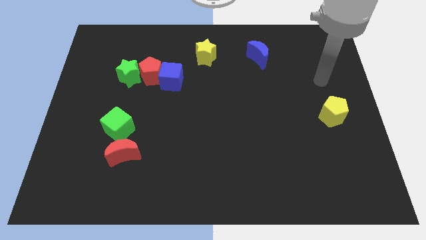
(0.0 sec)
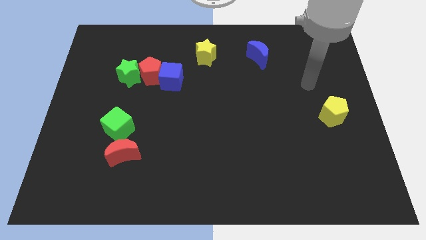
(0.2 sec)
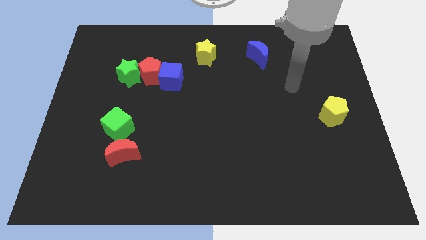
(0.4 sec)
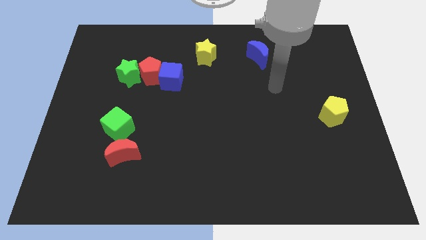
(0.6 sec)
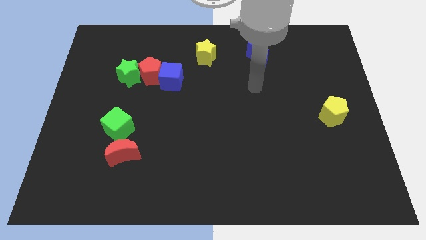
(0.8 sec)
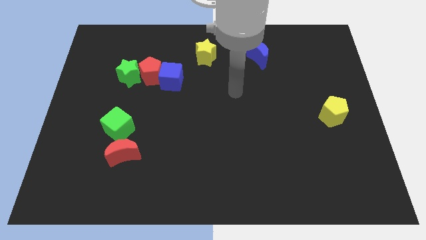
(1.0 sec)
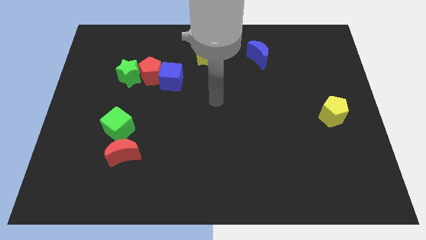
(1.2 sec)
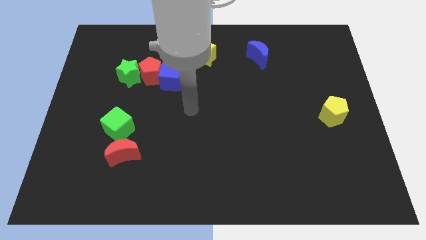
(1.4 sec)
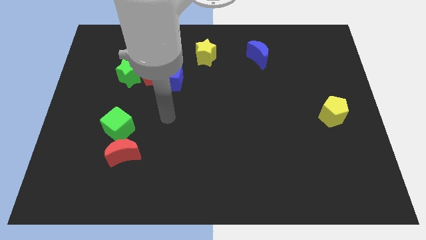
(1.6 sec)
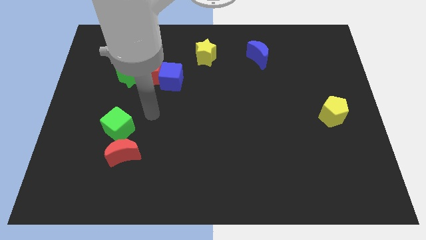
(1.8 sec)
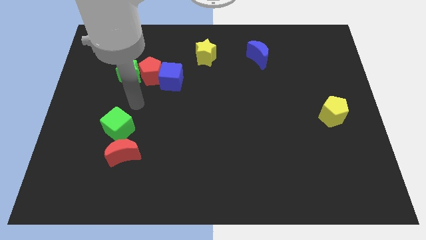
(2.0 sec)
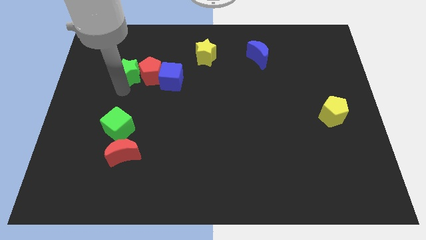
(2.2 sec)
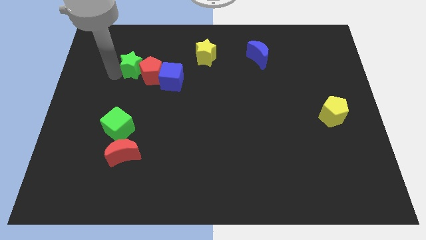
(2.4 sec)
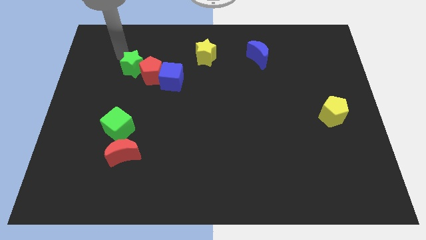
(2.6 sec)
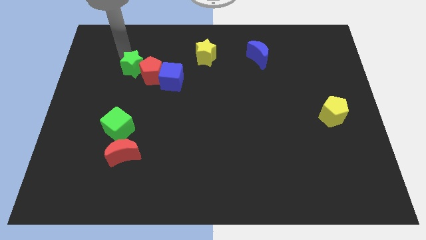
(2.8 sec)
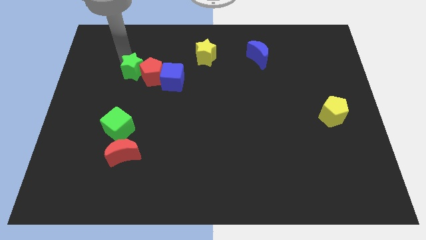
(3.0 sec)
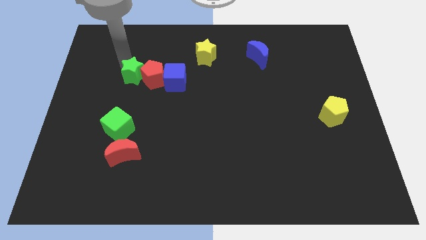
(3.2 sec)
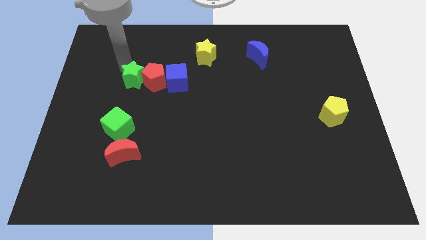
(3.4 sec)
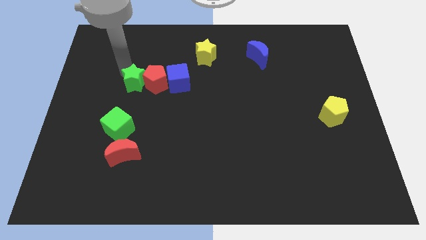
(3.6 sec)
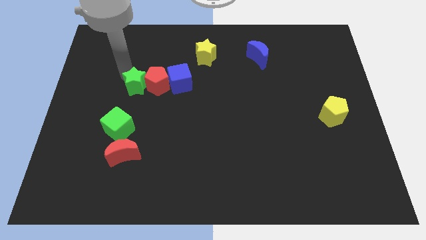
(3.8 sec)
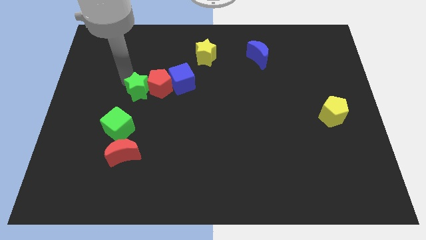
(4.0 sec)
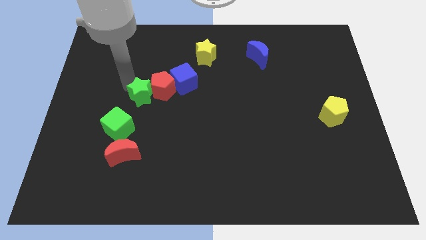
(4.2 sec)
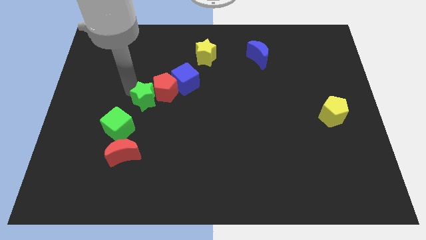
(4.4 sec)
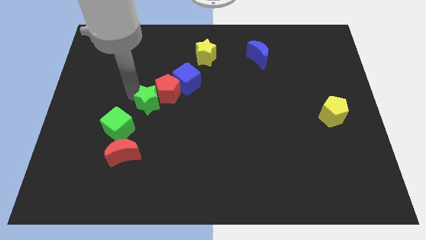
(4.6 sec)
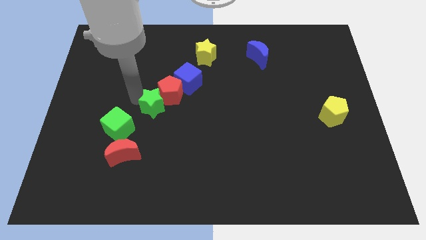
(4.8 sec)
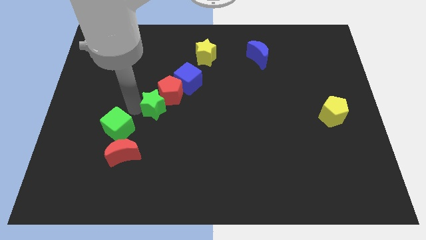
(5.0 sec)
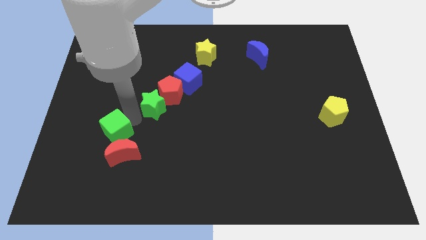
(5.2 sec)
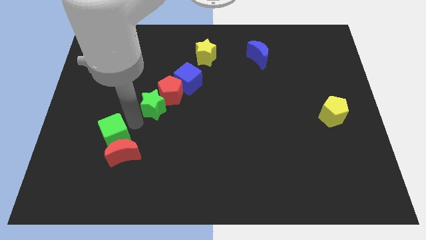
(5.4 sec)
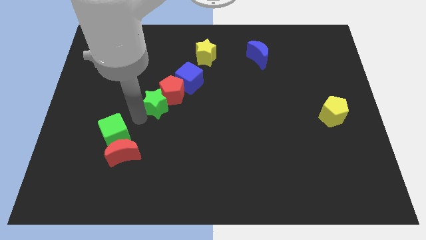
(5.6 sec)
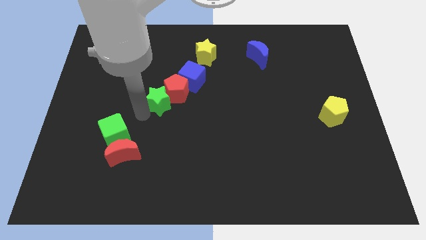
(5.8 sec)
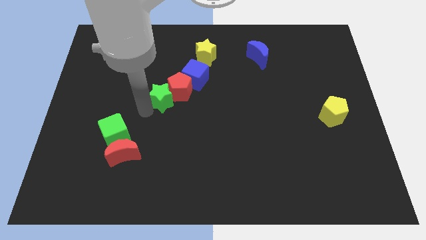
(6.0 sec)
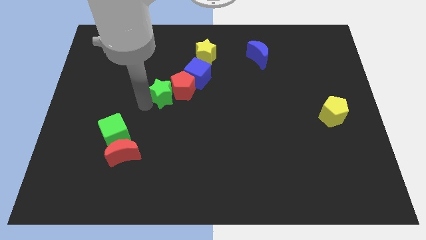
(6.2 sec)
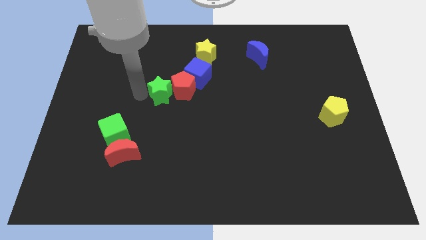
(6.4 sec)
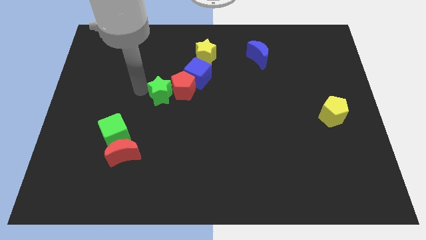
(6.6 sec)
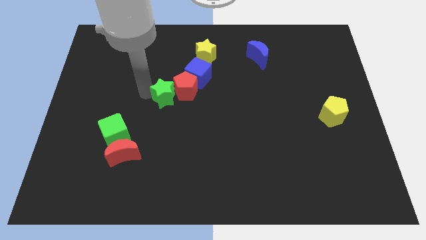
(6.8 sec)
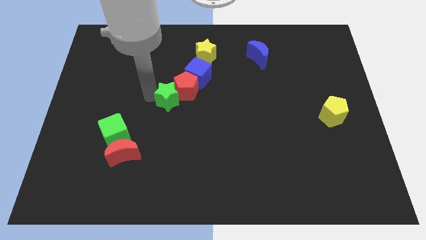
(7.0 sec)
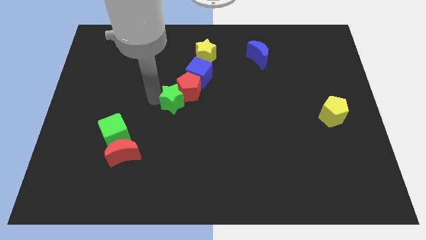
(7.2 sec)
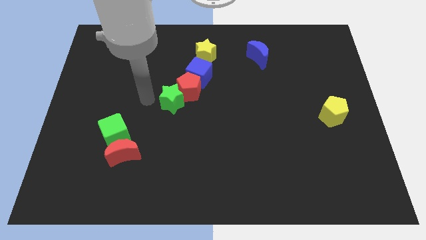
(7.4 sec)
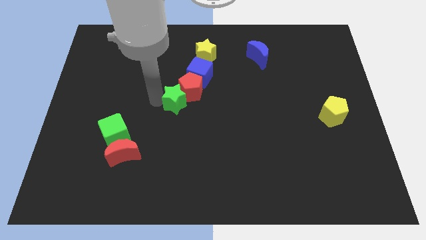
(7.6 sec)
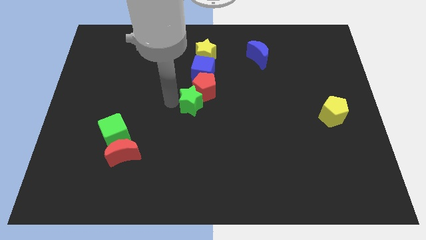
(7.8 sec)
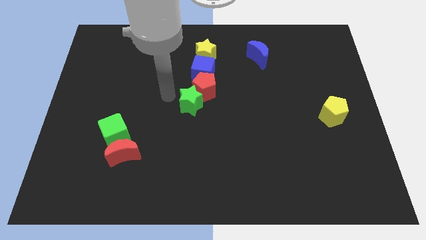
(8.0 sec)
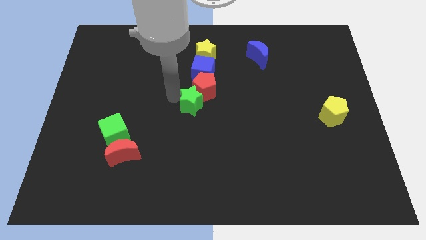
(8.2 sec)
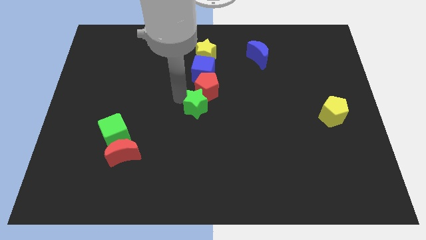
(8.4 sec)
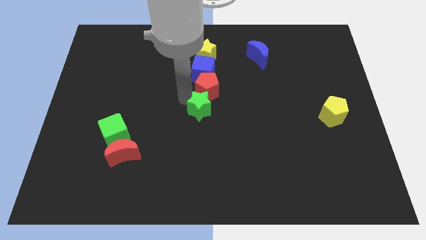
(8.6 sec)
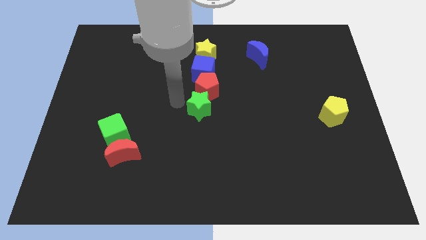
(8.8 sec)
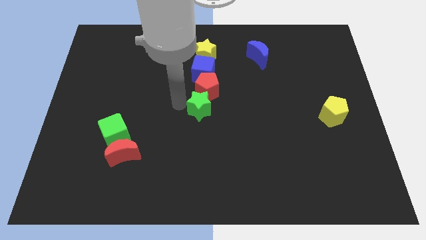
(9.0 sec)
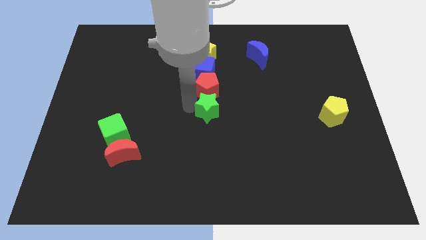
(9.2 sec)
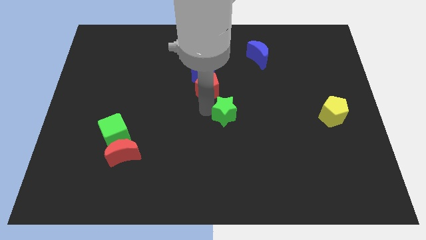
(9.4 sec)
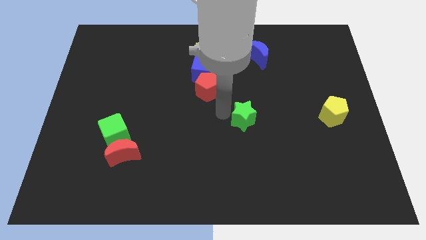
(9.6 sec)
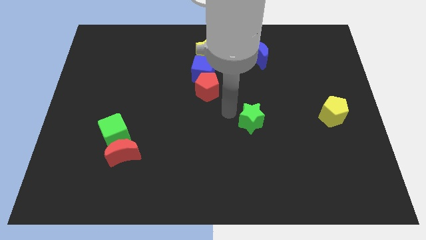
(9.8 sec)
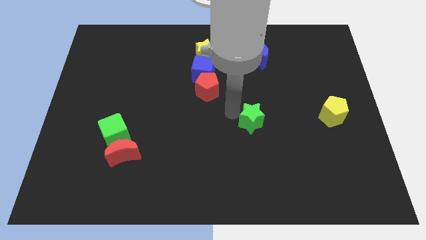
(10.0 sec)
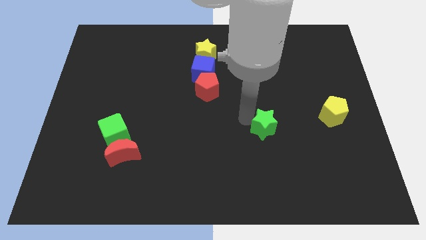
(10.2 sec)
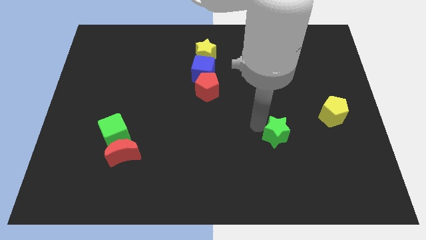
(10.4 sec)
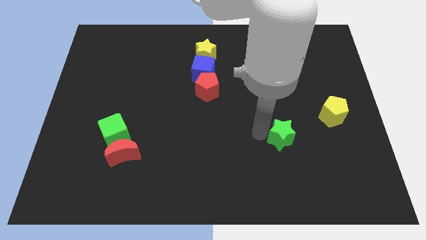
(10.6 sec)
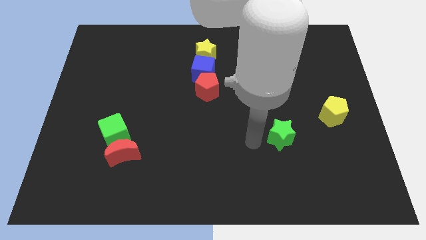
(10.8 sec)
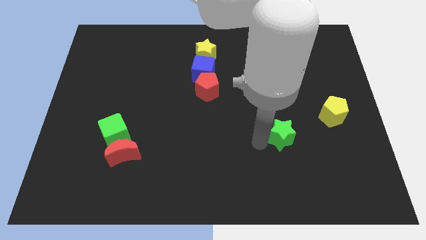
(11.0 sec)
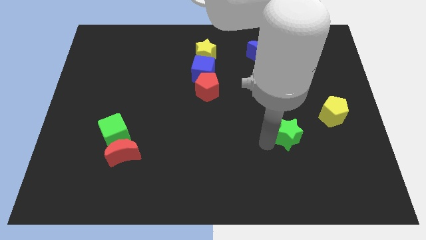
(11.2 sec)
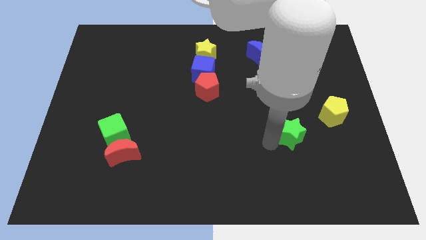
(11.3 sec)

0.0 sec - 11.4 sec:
push the green star to the bottom left of the yellow pentagon

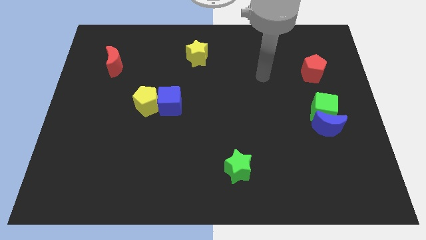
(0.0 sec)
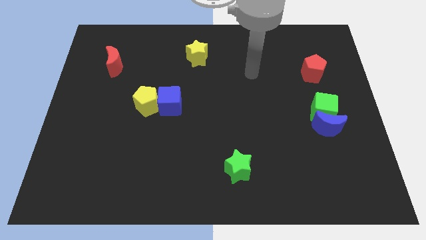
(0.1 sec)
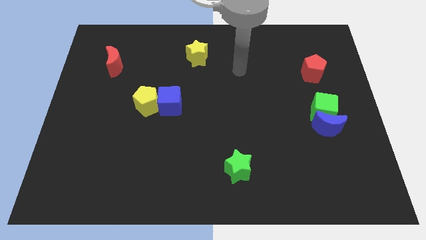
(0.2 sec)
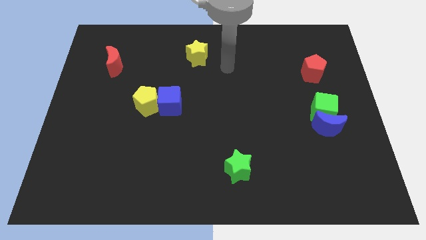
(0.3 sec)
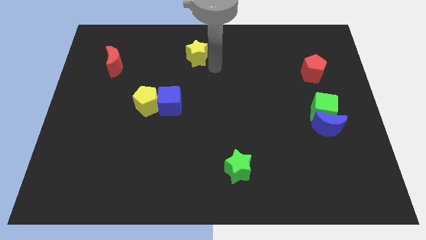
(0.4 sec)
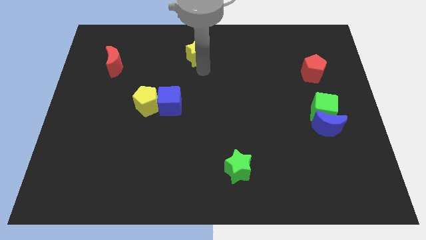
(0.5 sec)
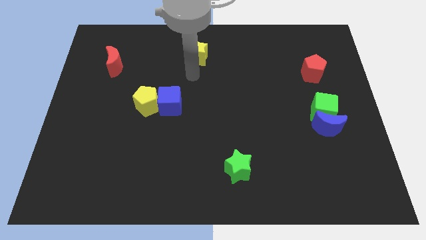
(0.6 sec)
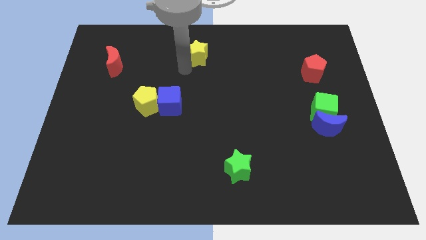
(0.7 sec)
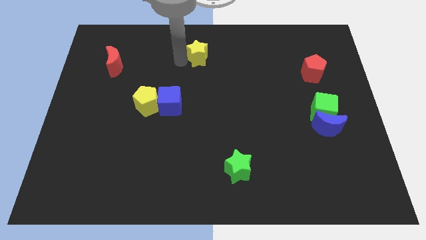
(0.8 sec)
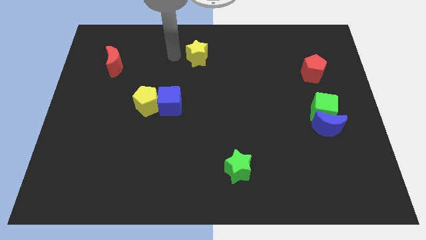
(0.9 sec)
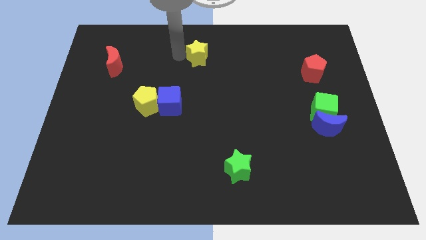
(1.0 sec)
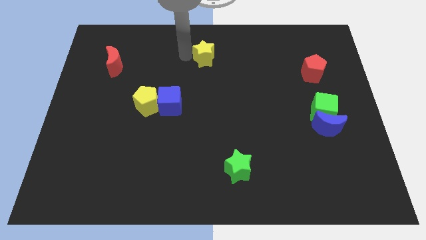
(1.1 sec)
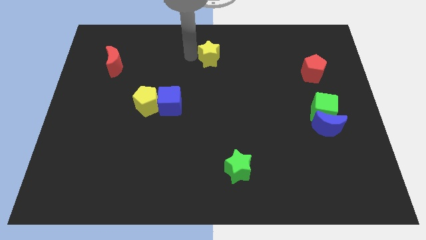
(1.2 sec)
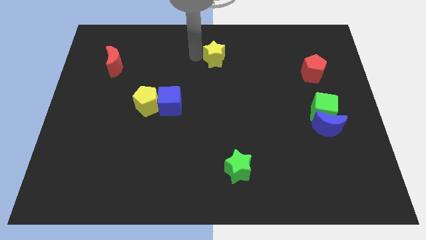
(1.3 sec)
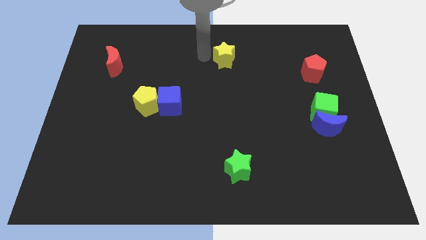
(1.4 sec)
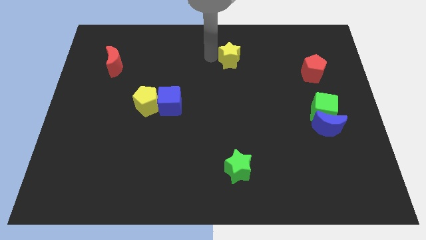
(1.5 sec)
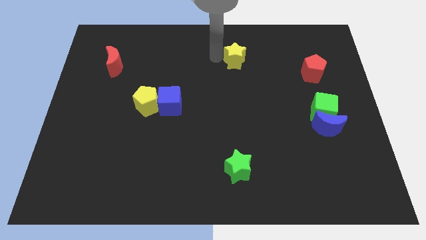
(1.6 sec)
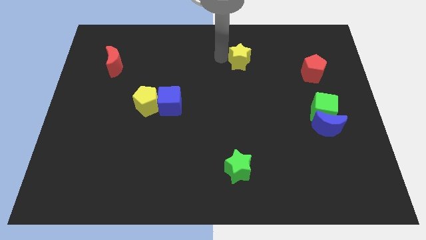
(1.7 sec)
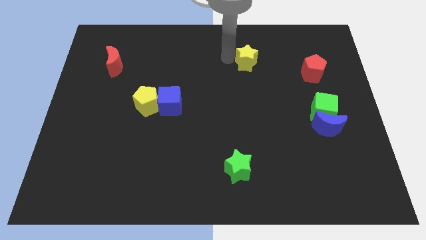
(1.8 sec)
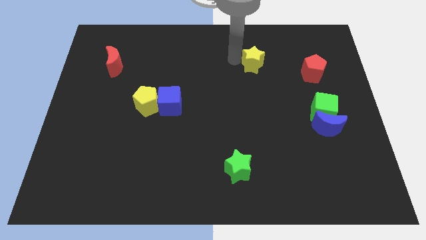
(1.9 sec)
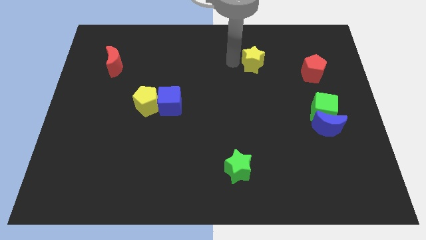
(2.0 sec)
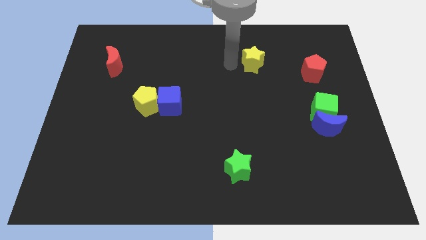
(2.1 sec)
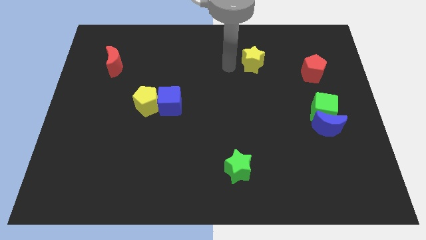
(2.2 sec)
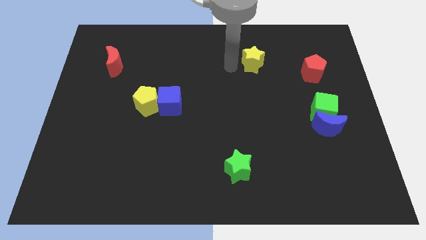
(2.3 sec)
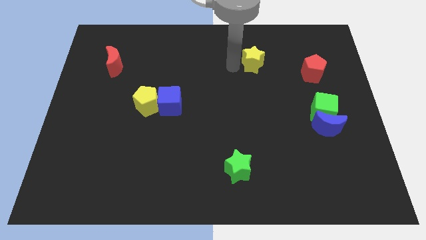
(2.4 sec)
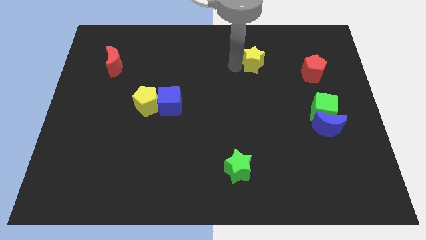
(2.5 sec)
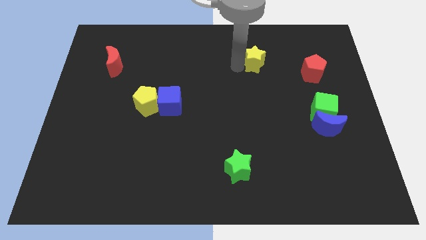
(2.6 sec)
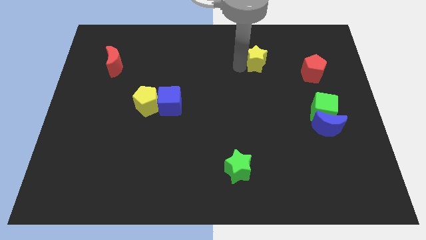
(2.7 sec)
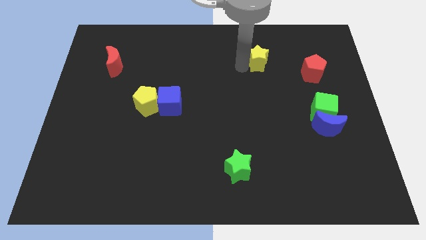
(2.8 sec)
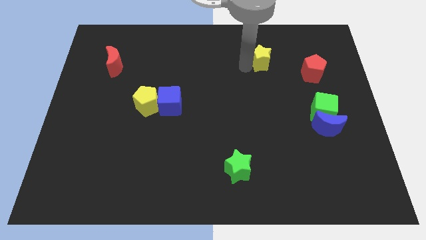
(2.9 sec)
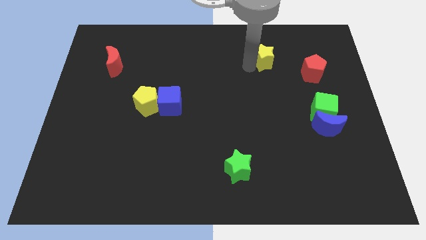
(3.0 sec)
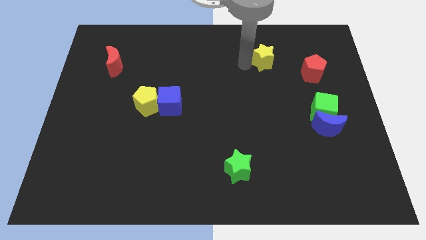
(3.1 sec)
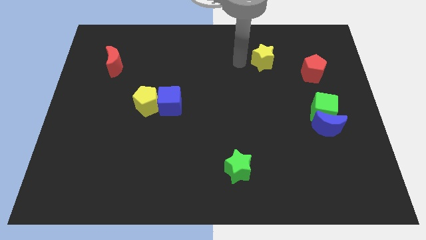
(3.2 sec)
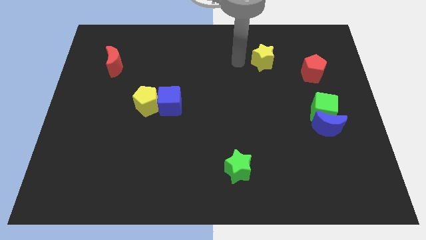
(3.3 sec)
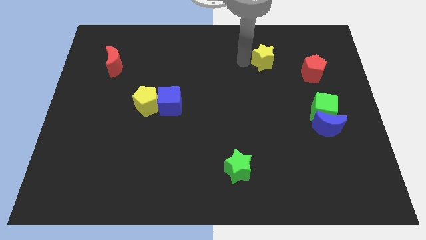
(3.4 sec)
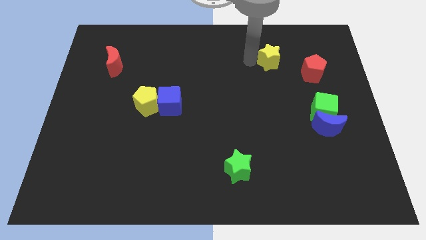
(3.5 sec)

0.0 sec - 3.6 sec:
slide the yellow star to the top left of the red pentagon
